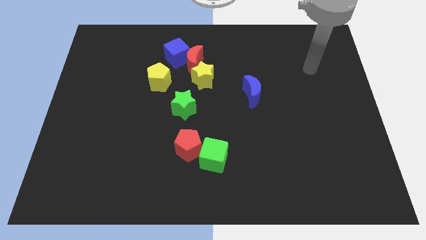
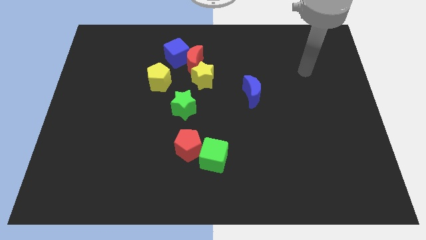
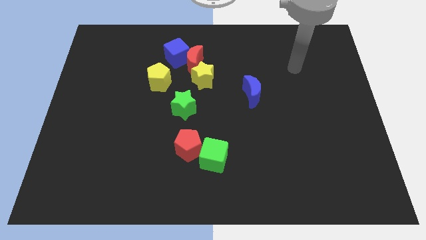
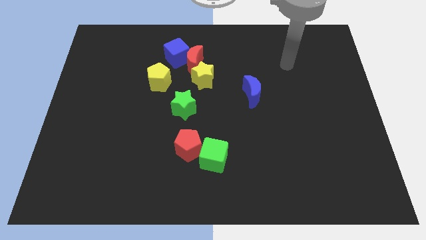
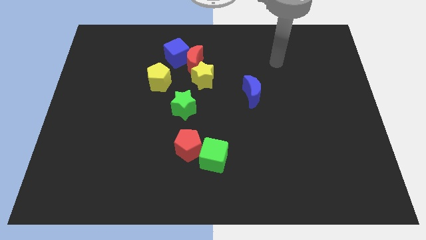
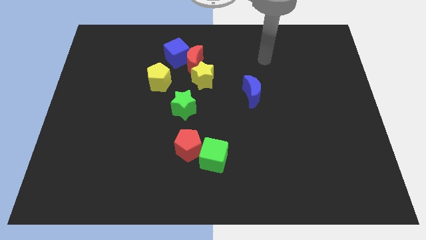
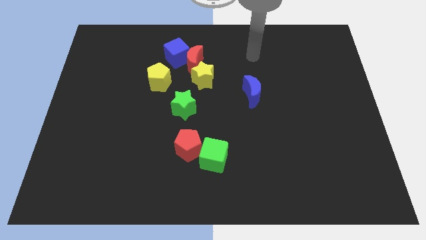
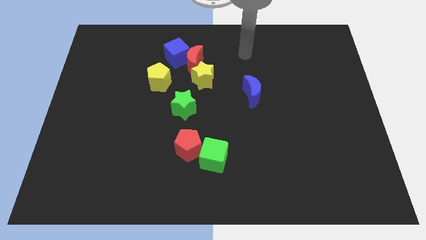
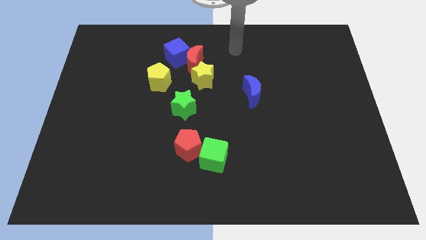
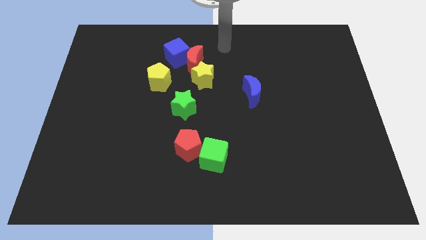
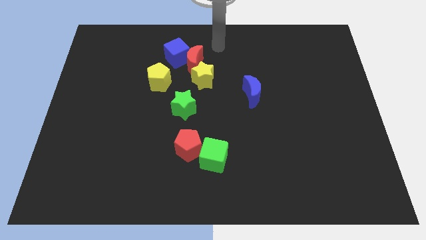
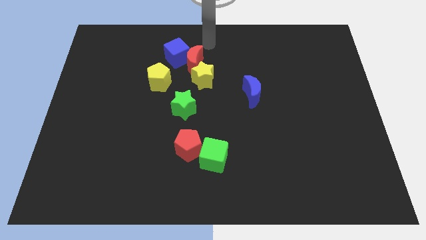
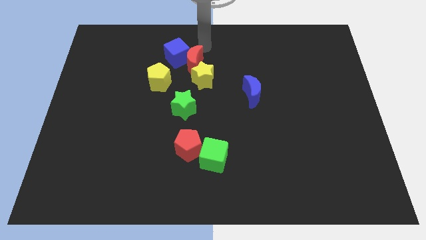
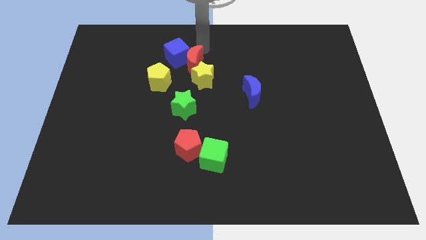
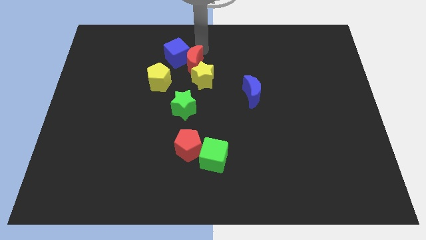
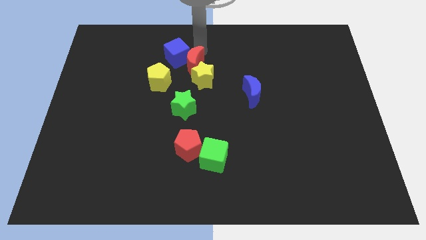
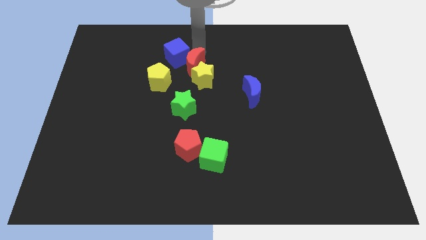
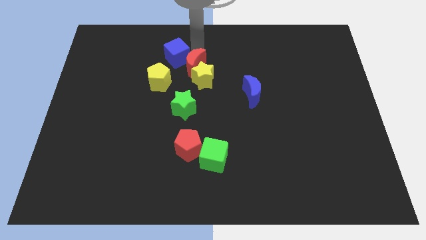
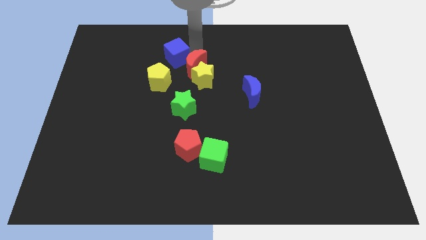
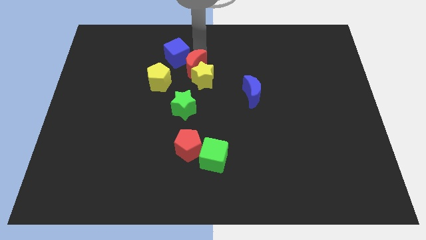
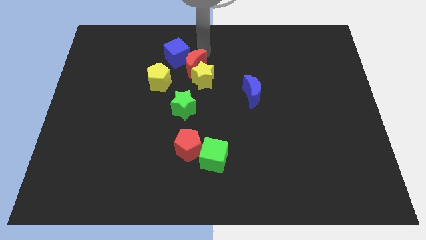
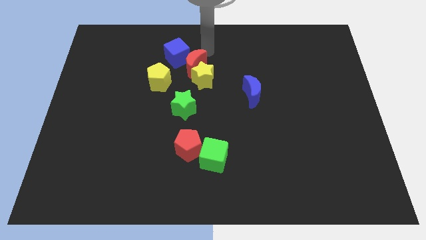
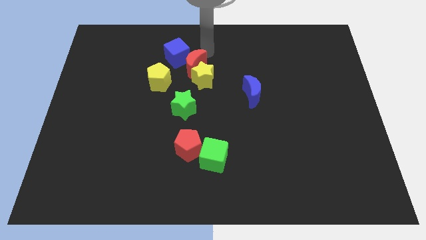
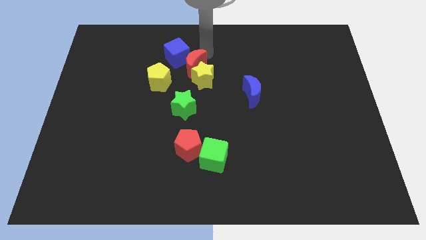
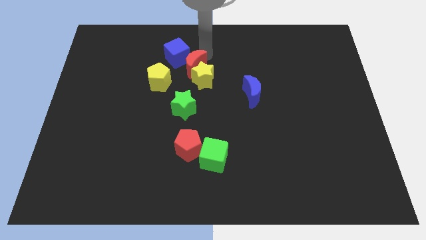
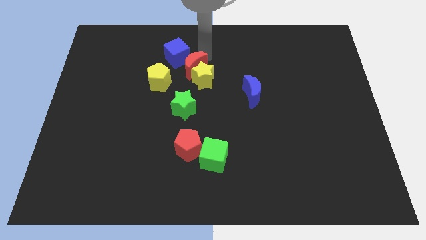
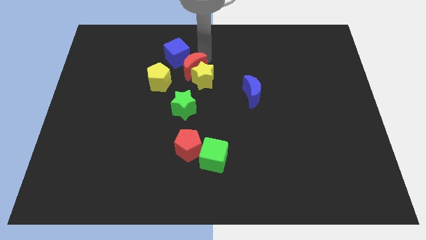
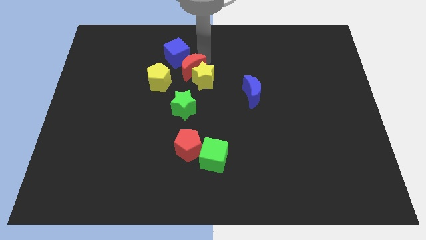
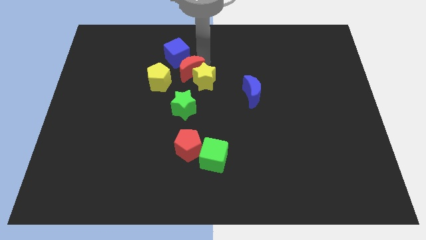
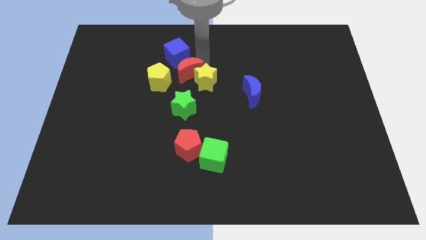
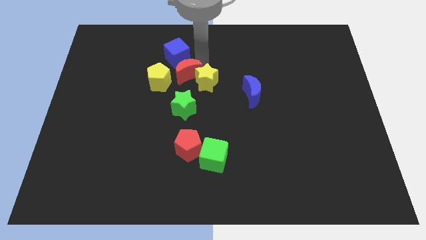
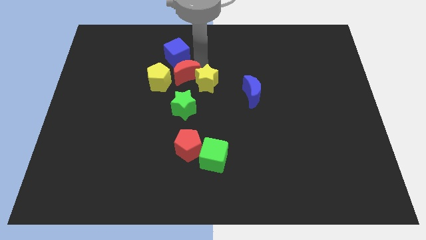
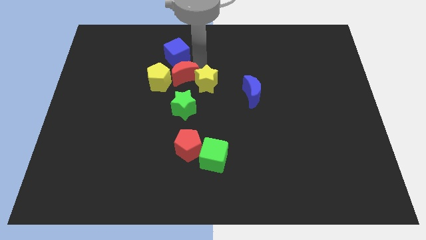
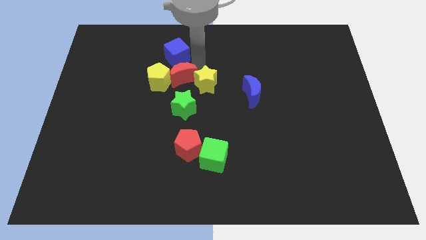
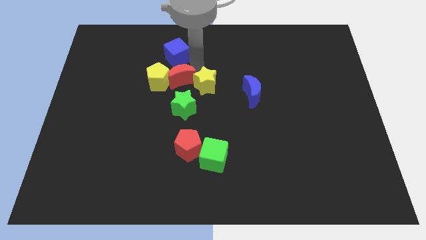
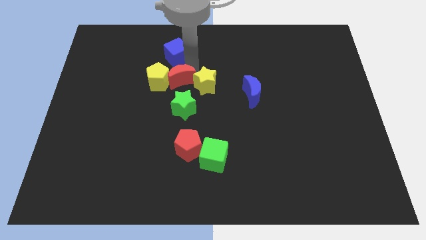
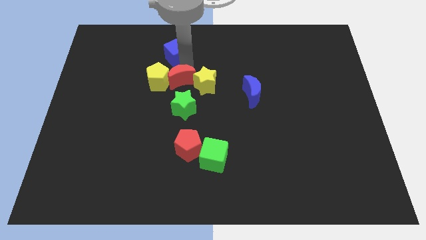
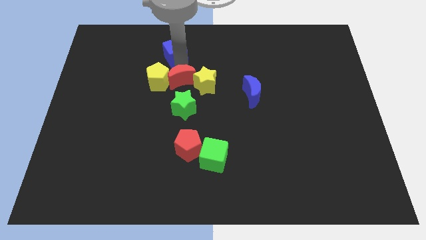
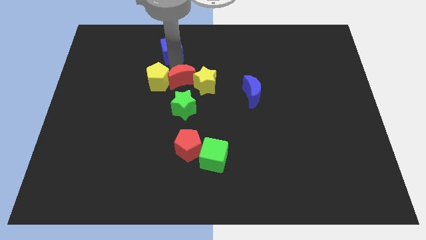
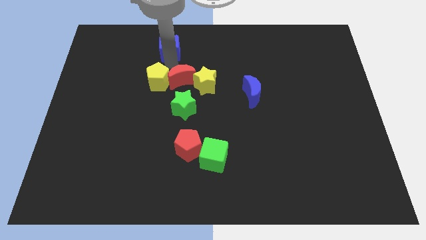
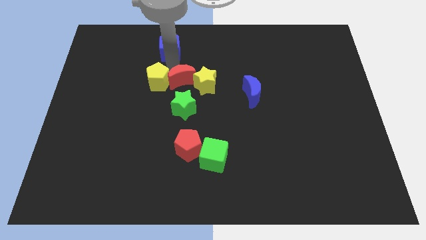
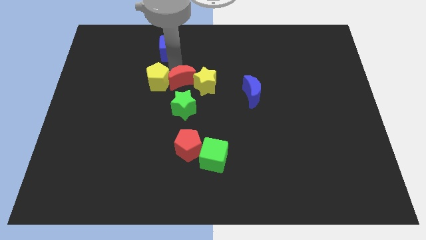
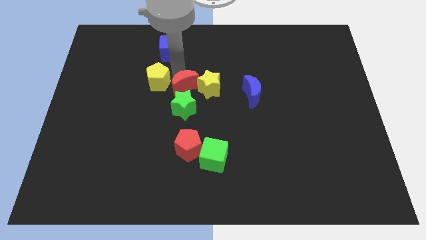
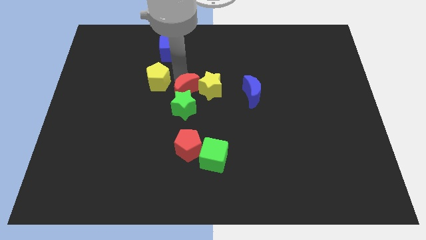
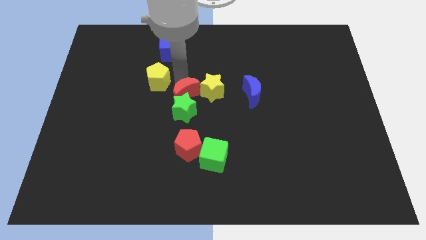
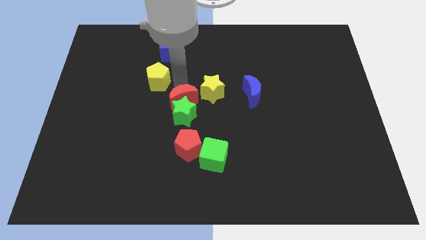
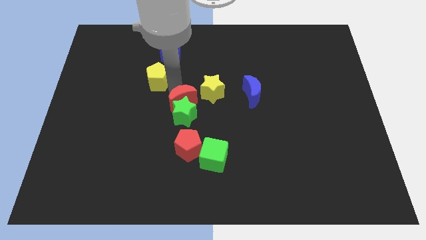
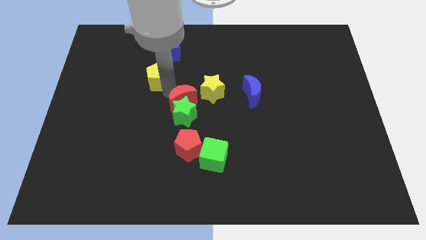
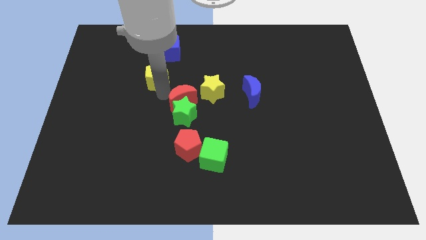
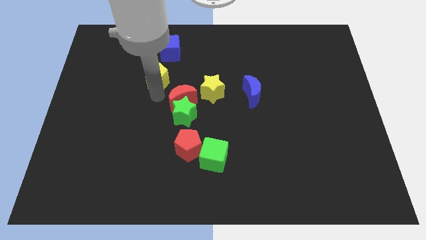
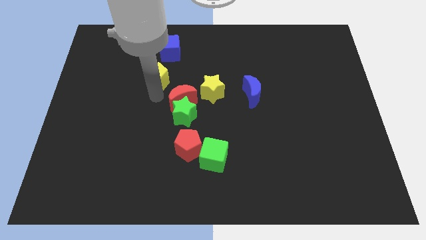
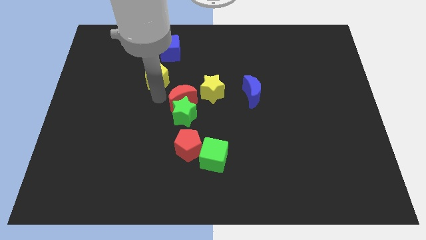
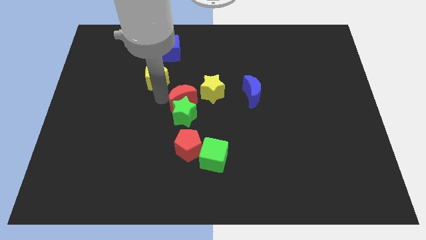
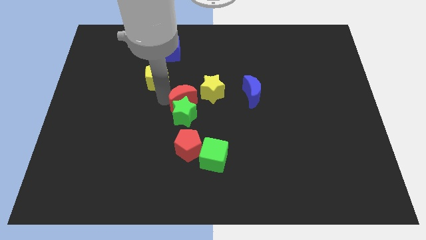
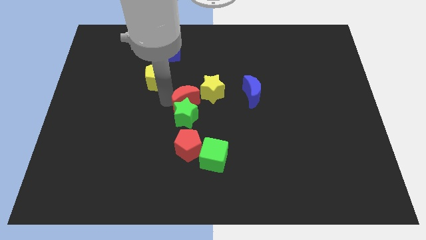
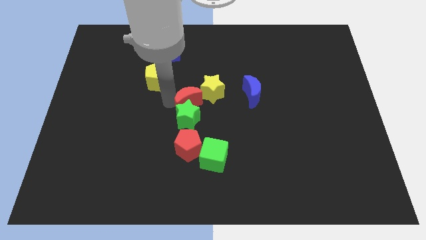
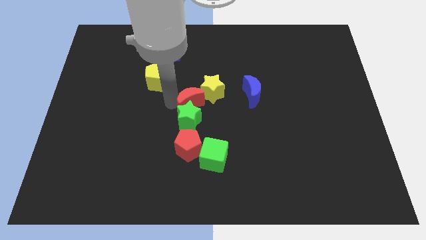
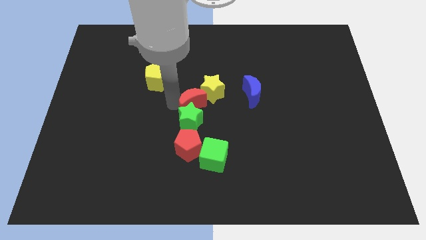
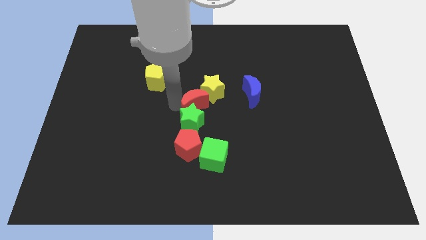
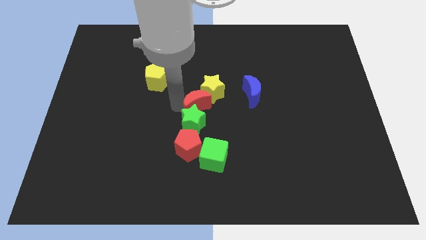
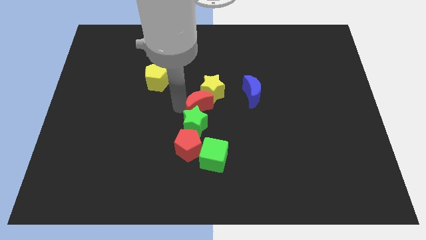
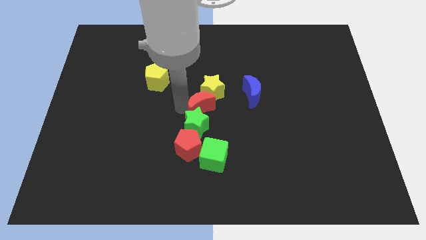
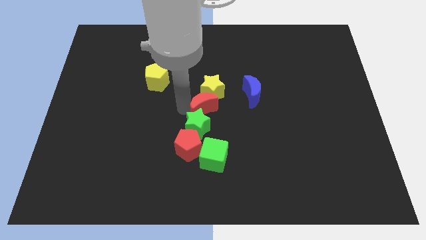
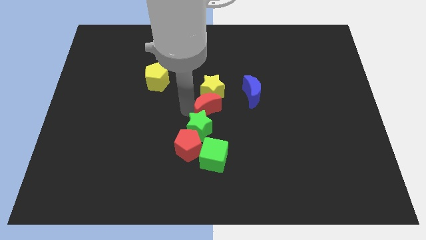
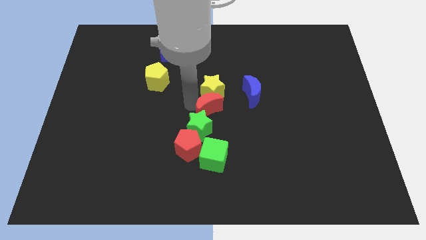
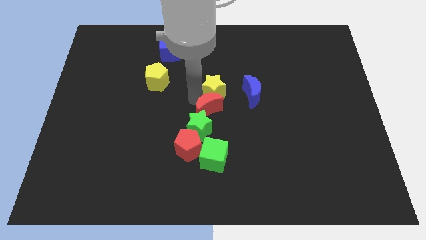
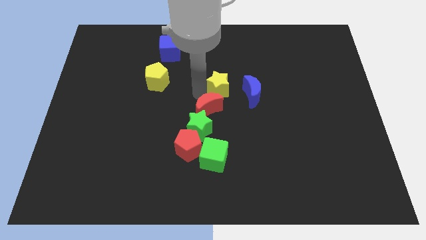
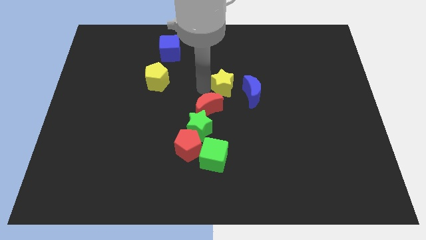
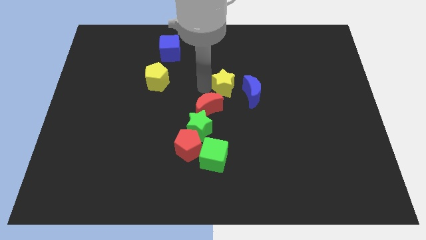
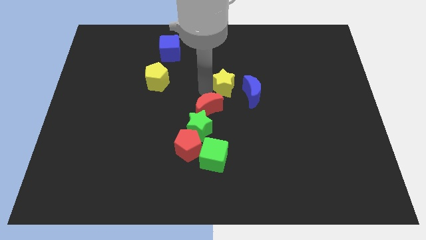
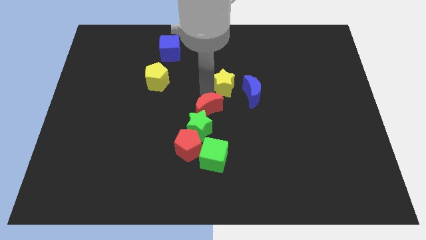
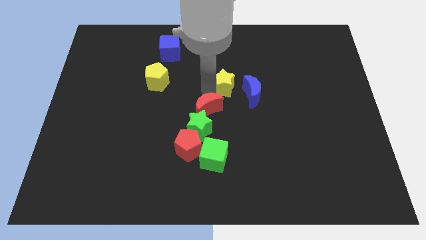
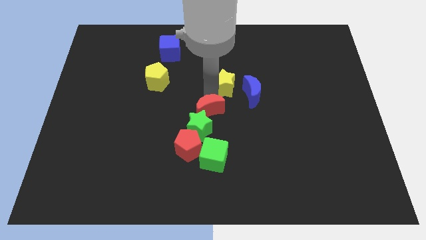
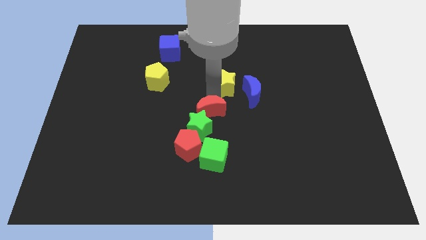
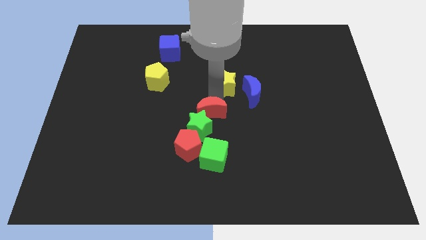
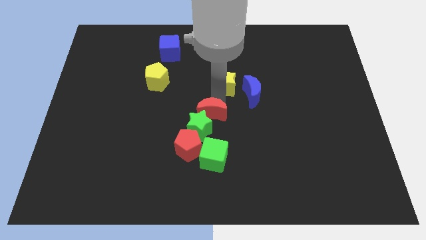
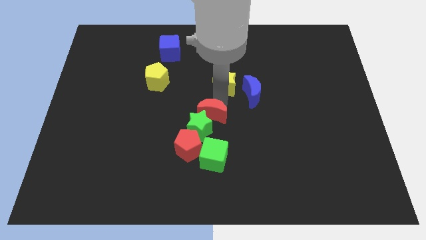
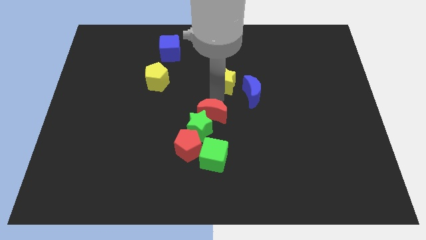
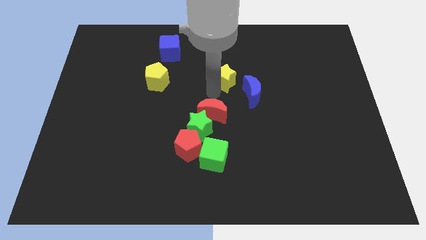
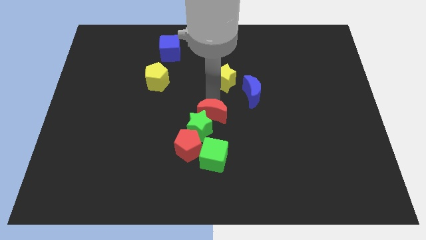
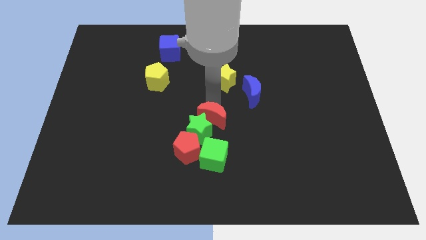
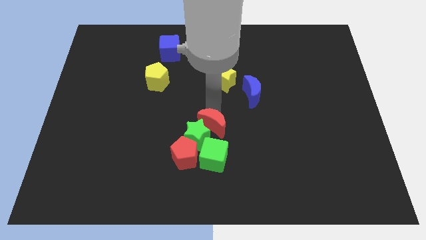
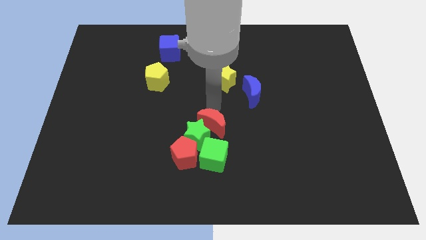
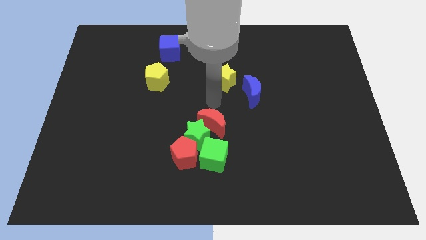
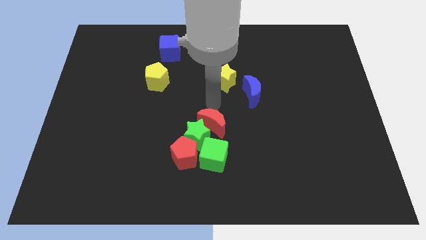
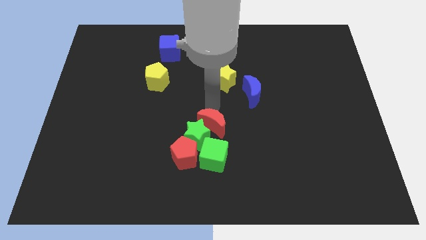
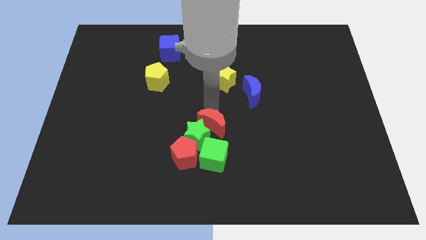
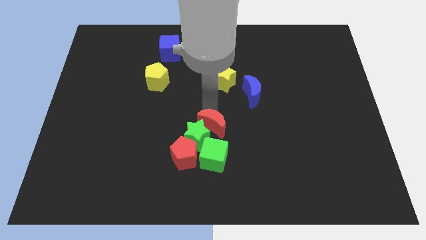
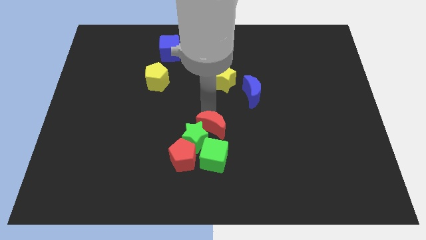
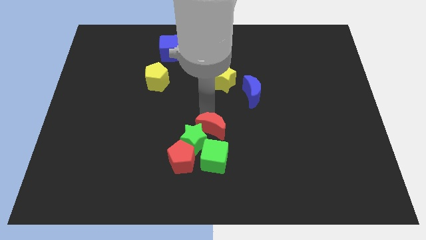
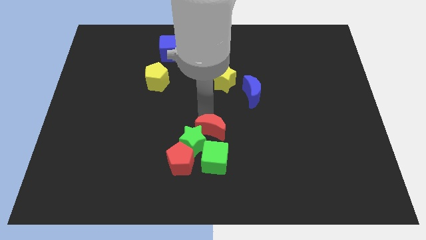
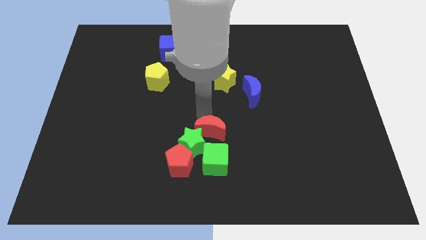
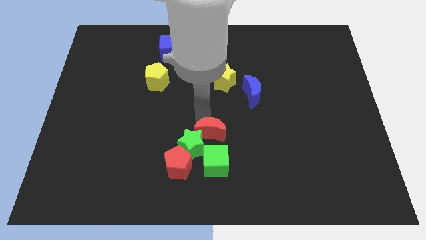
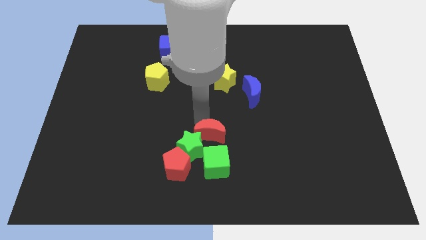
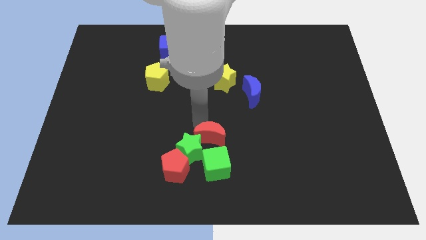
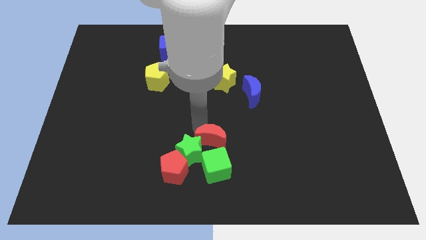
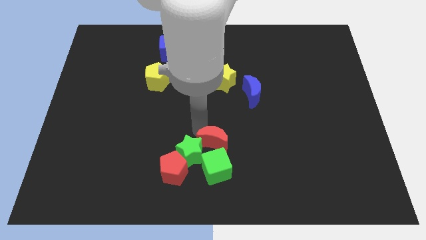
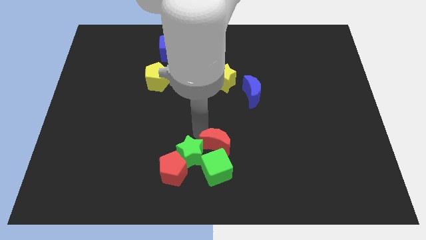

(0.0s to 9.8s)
slide the red moon to the green cube
